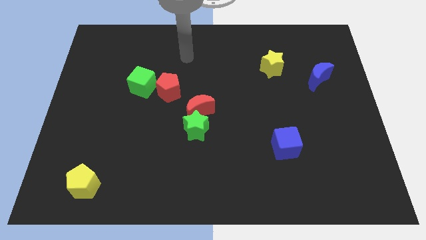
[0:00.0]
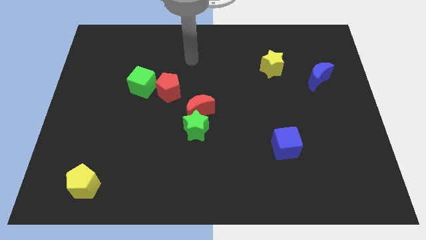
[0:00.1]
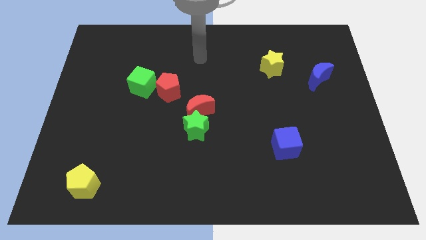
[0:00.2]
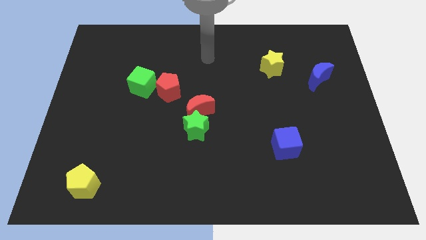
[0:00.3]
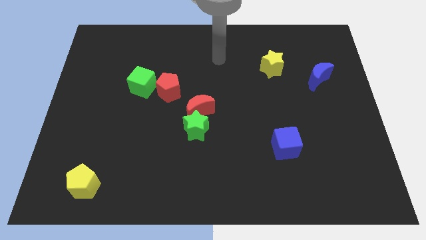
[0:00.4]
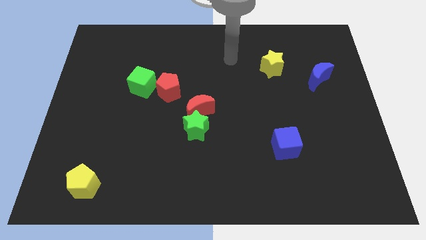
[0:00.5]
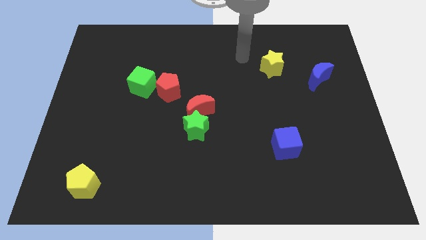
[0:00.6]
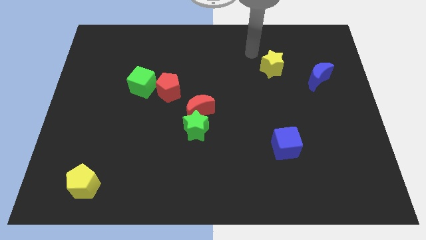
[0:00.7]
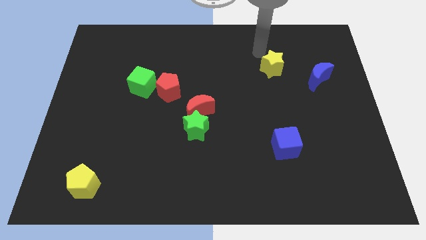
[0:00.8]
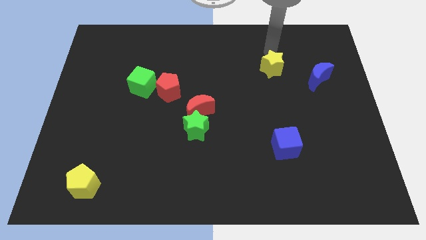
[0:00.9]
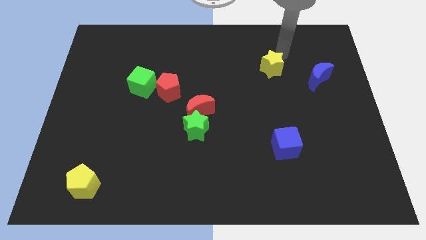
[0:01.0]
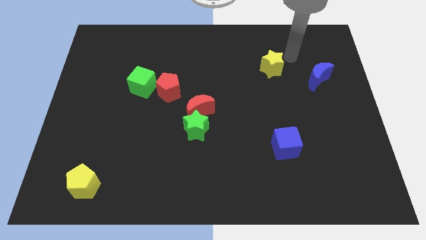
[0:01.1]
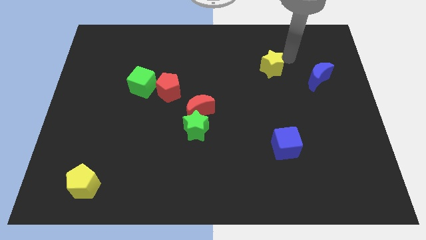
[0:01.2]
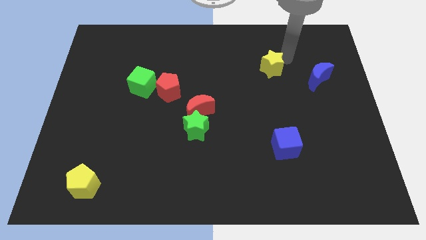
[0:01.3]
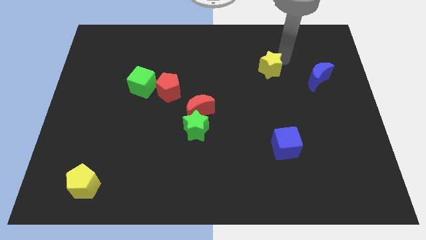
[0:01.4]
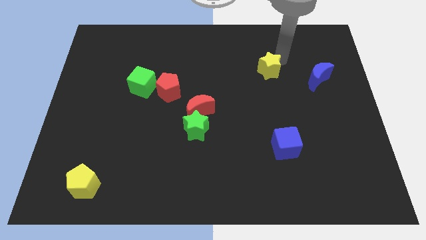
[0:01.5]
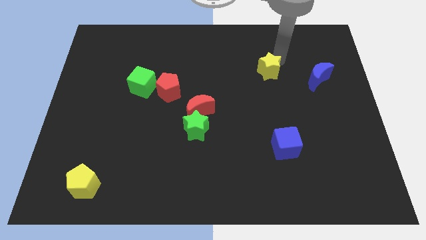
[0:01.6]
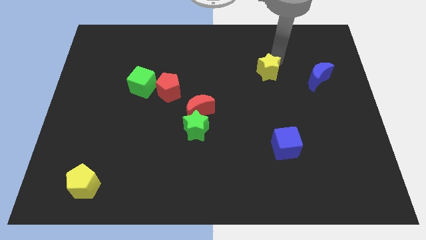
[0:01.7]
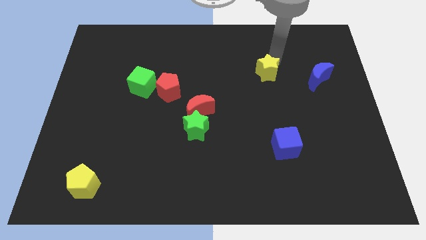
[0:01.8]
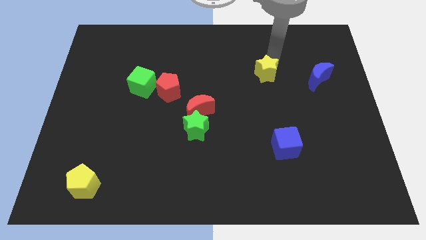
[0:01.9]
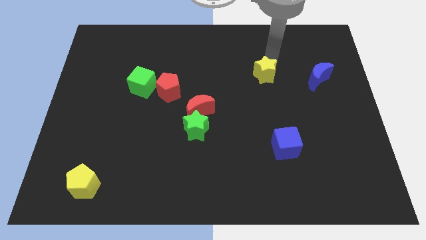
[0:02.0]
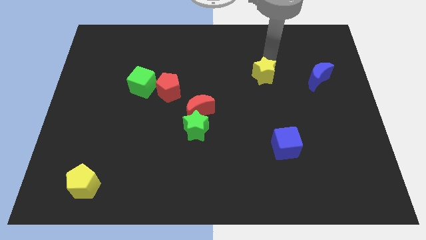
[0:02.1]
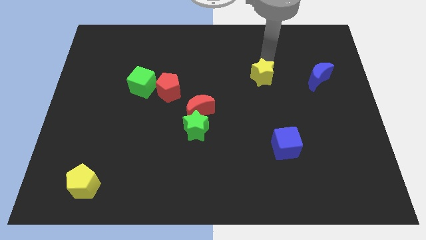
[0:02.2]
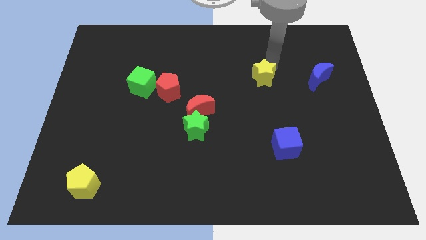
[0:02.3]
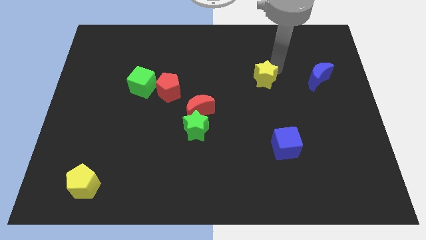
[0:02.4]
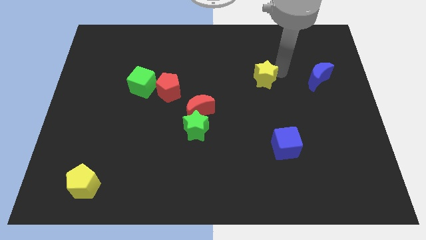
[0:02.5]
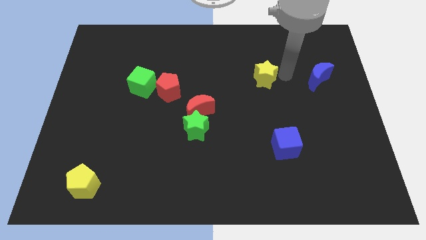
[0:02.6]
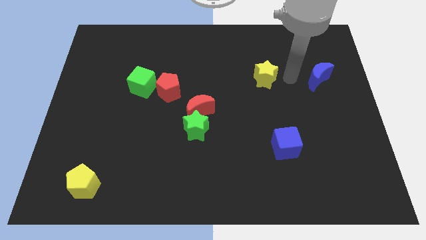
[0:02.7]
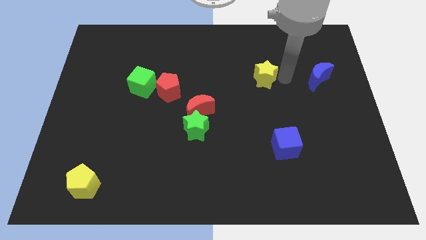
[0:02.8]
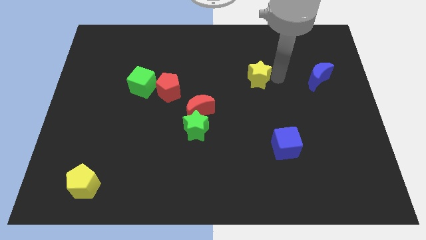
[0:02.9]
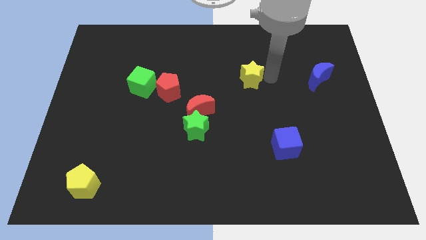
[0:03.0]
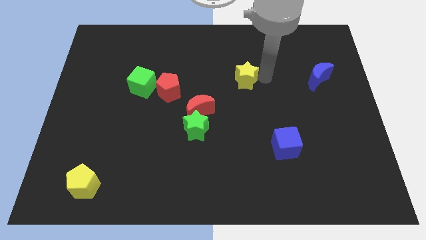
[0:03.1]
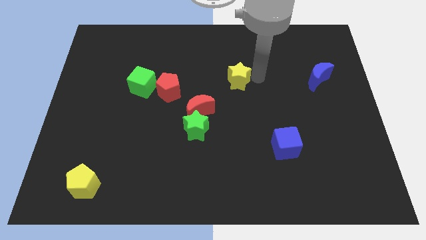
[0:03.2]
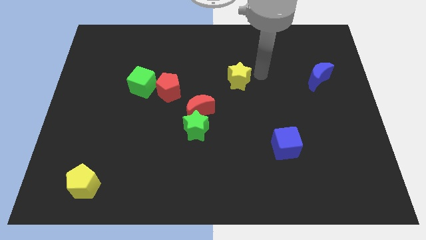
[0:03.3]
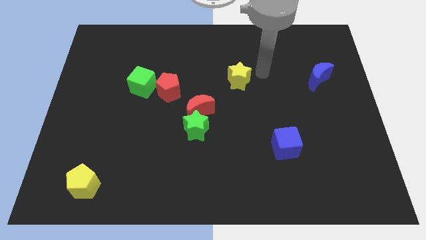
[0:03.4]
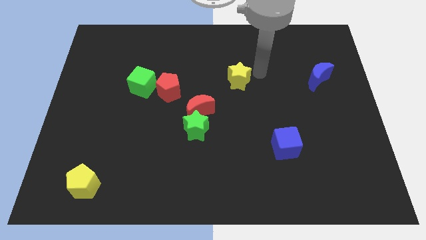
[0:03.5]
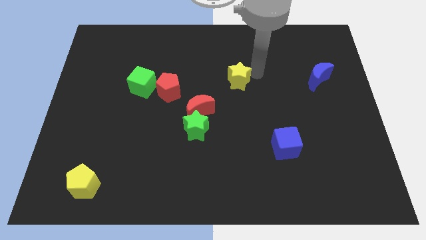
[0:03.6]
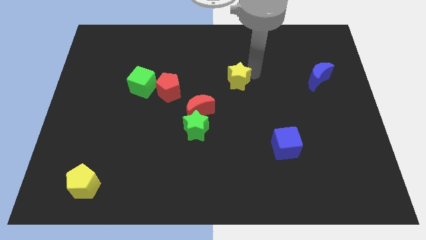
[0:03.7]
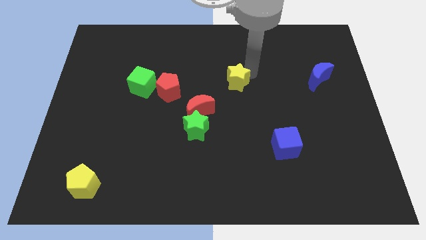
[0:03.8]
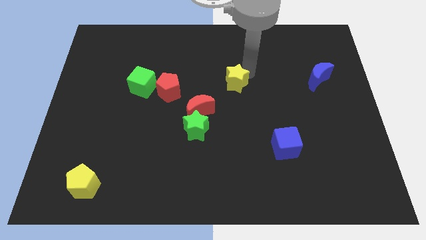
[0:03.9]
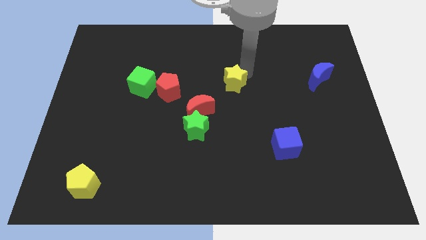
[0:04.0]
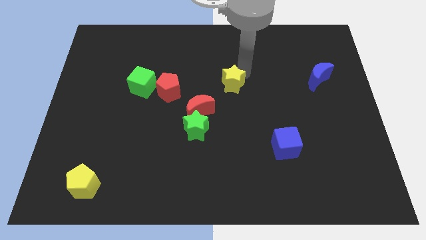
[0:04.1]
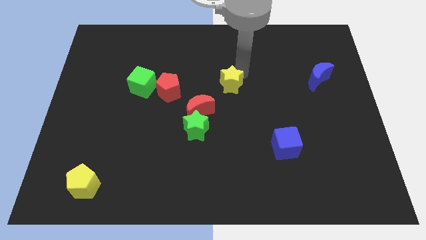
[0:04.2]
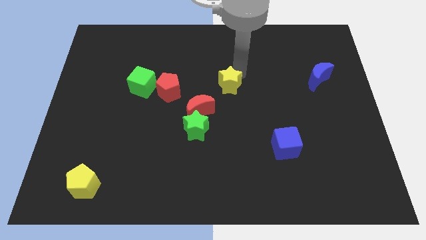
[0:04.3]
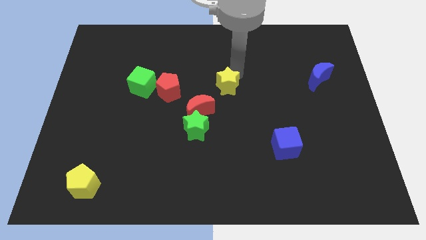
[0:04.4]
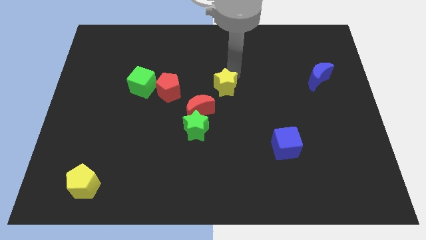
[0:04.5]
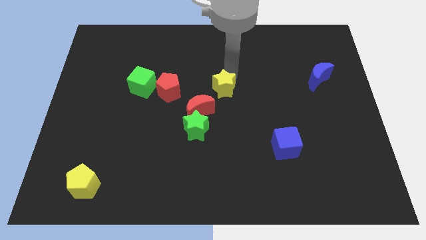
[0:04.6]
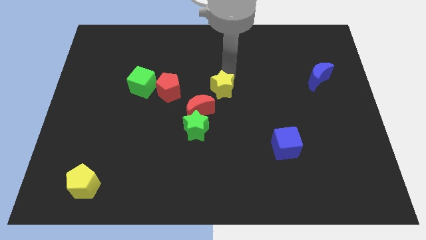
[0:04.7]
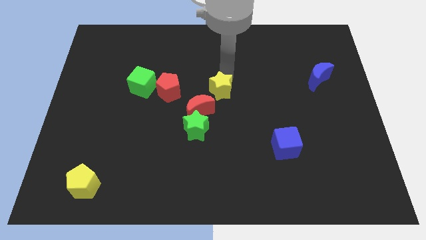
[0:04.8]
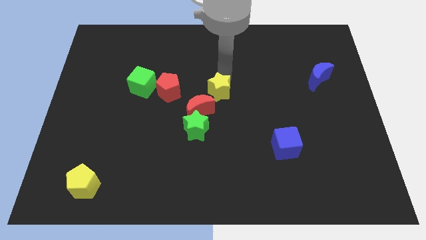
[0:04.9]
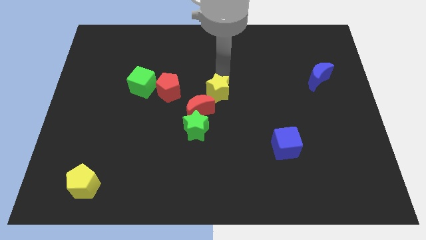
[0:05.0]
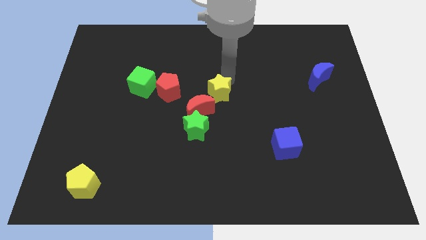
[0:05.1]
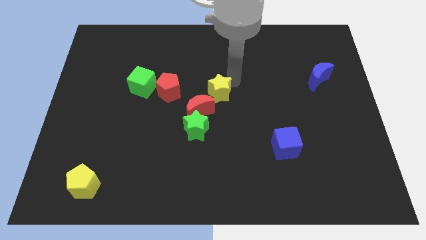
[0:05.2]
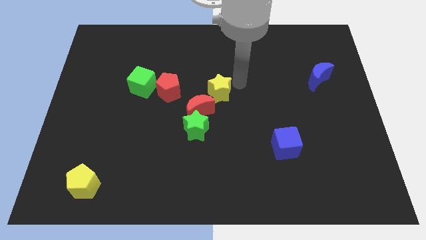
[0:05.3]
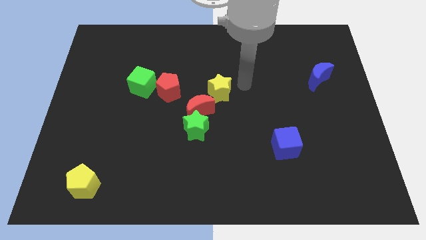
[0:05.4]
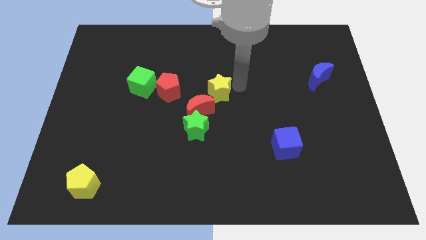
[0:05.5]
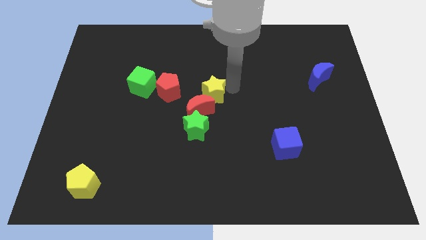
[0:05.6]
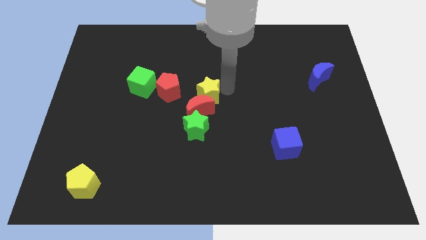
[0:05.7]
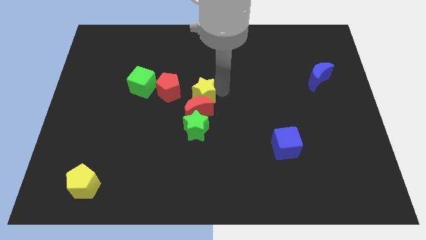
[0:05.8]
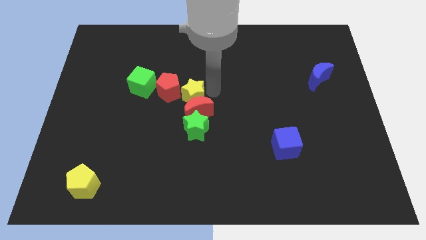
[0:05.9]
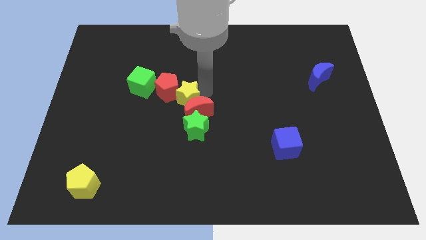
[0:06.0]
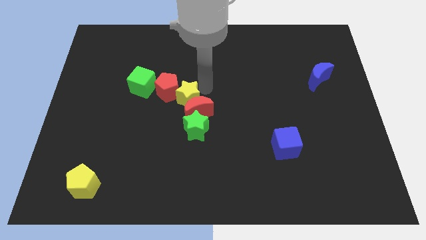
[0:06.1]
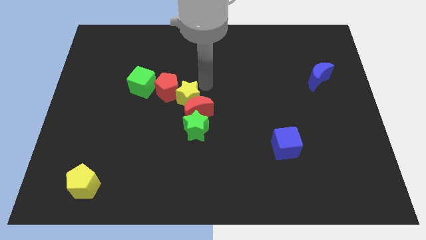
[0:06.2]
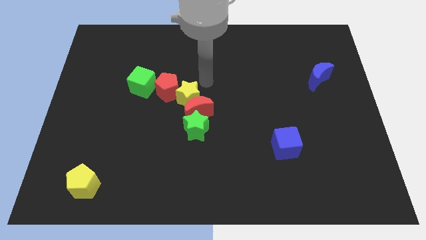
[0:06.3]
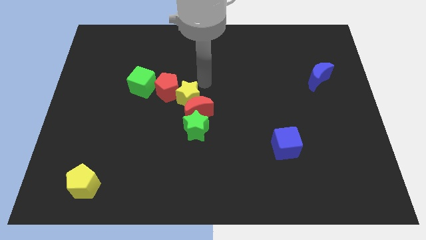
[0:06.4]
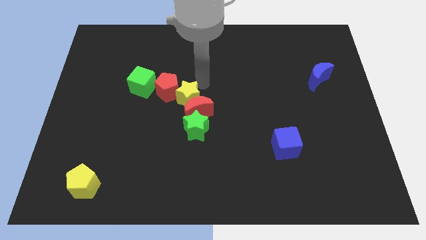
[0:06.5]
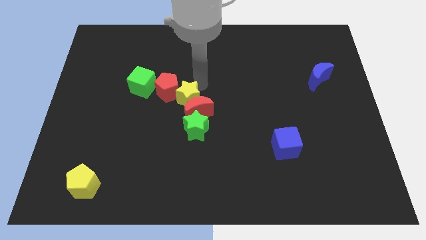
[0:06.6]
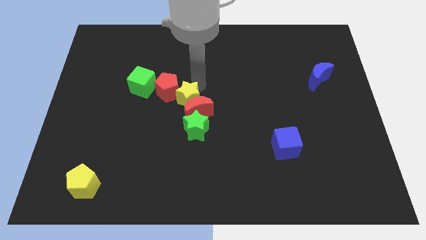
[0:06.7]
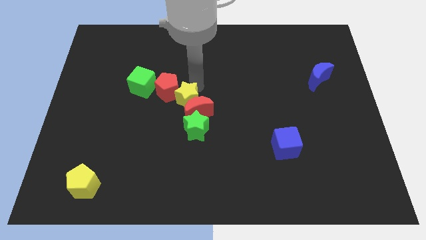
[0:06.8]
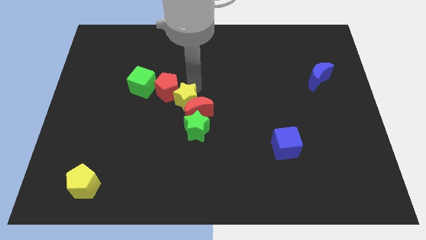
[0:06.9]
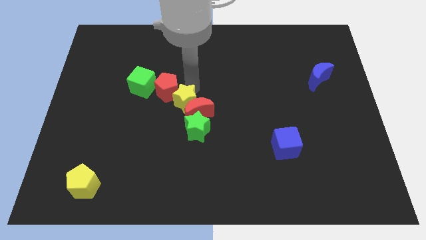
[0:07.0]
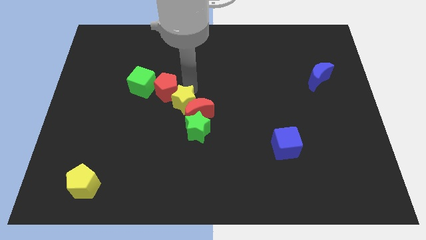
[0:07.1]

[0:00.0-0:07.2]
slide the yellow star to the bottom right side of the green cube
